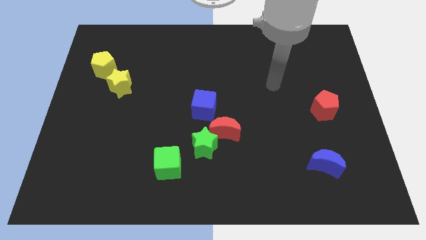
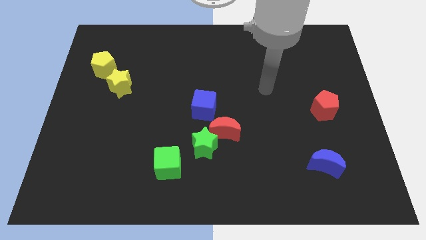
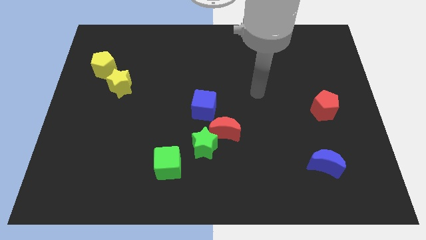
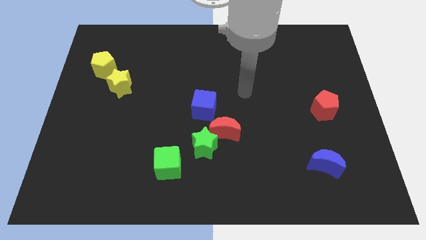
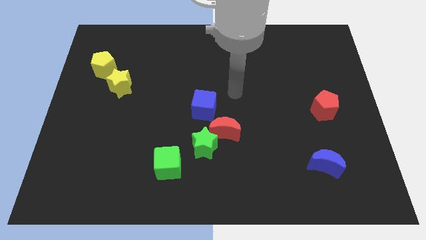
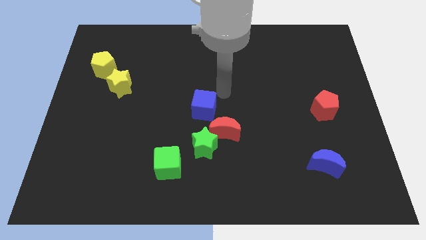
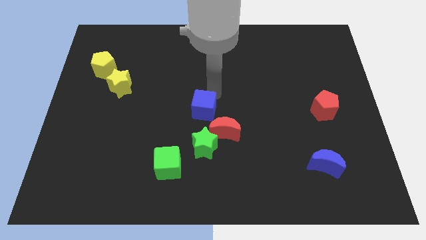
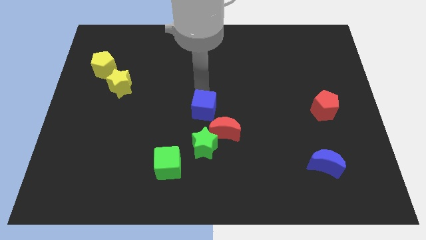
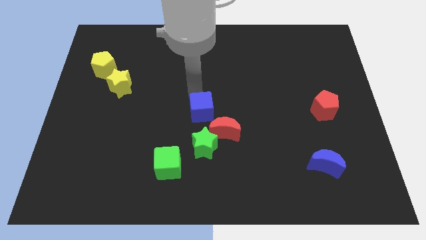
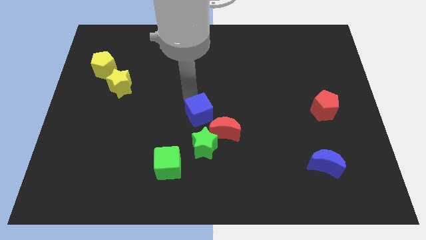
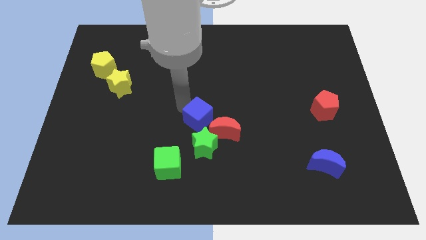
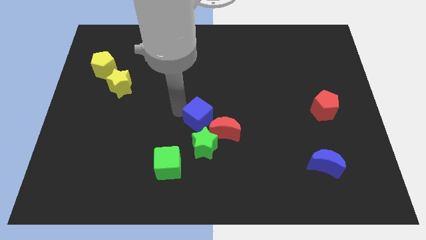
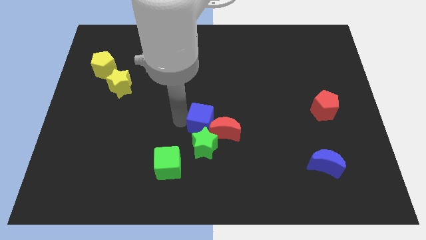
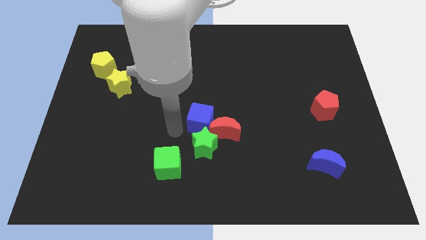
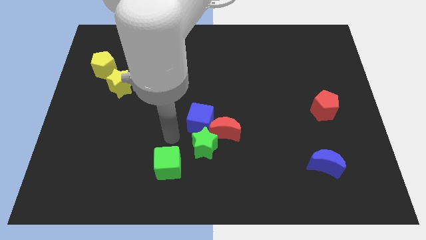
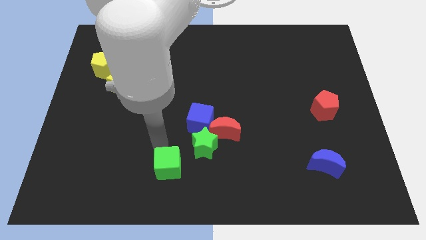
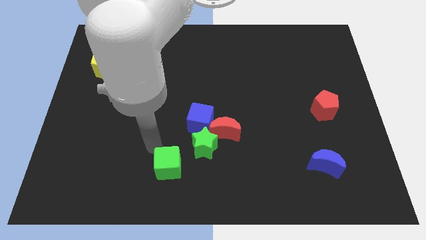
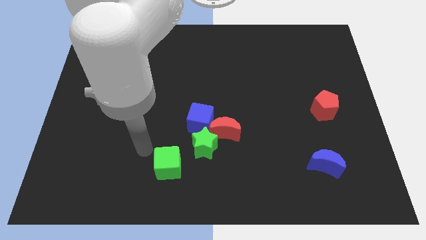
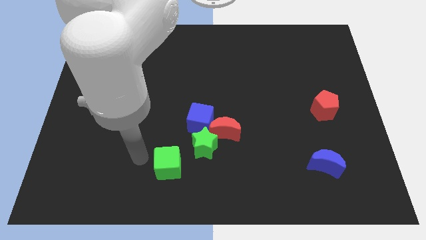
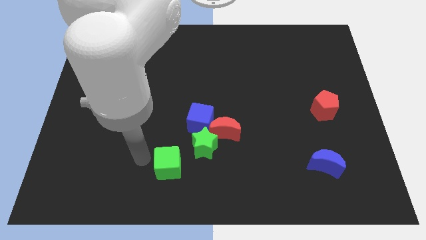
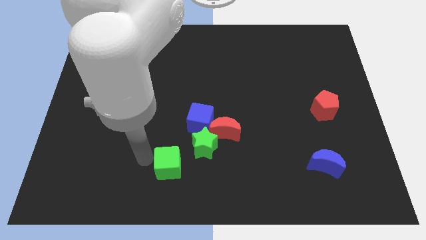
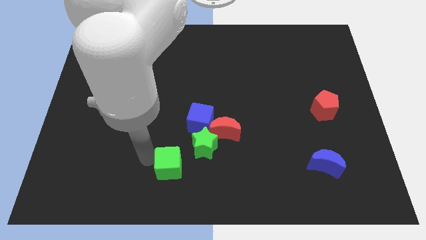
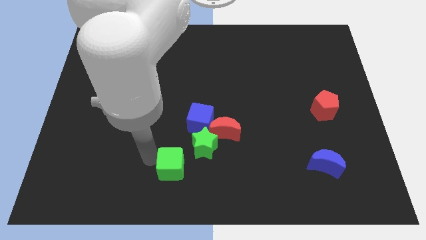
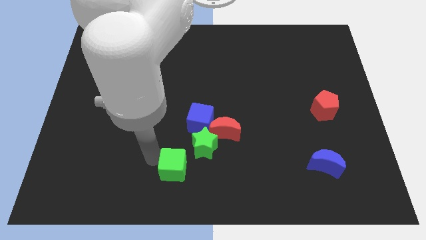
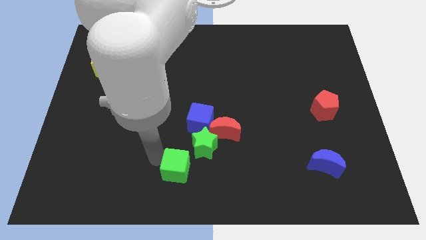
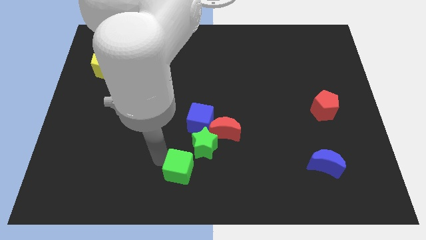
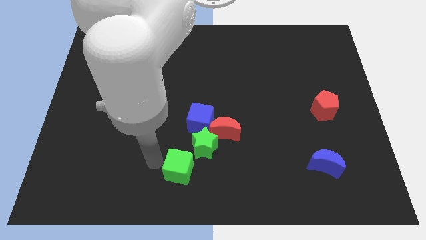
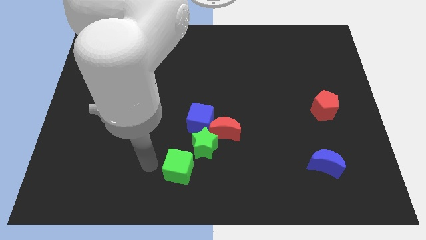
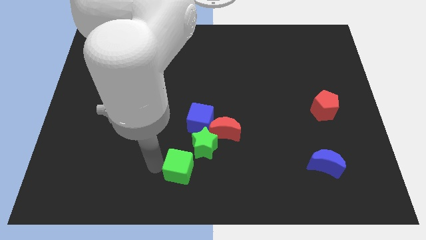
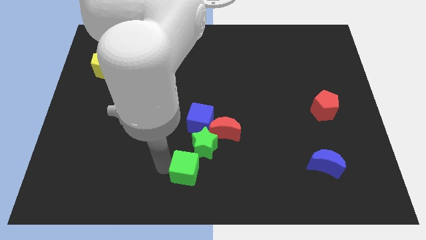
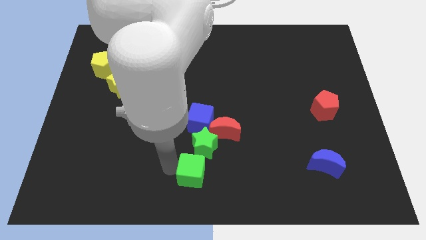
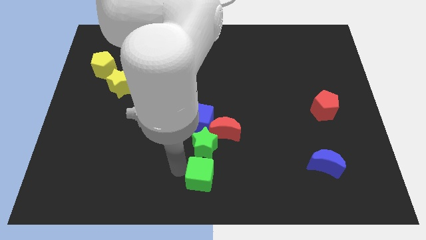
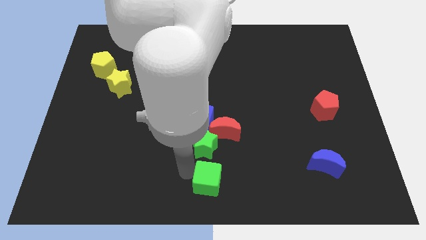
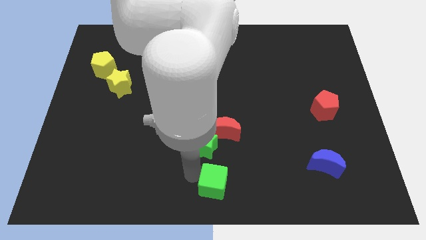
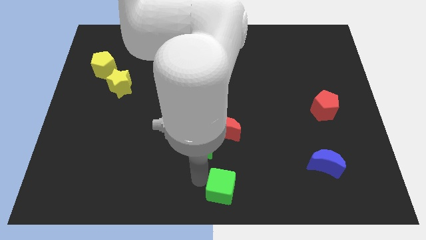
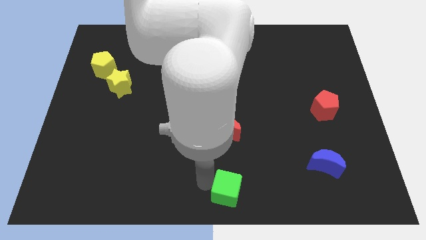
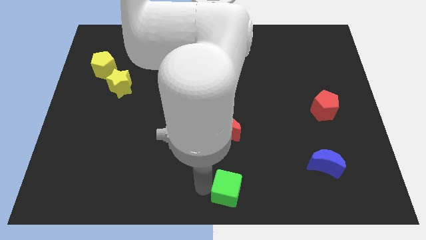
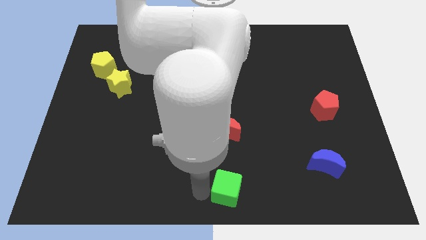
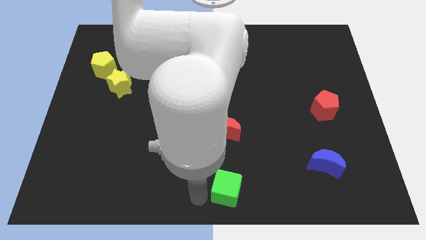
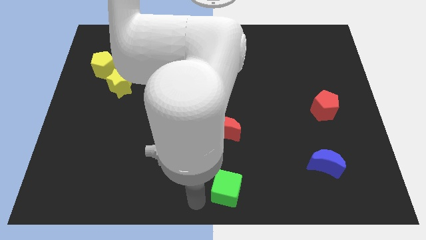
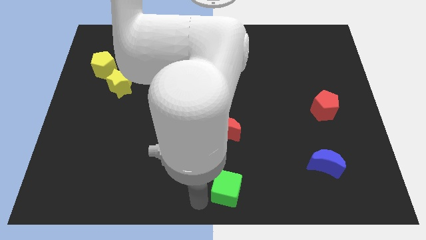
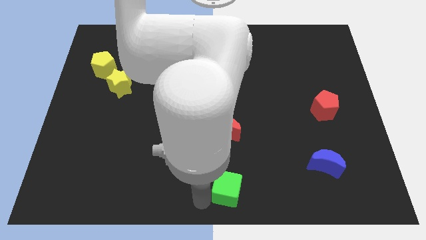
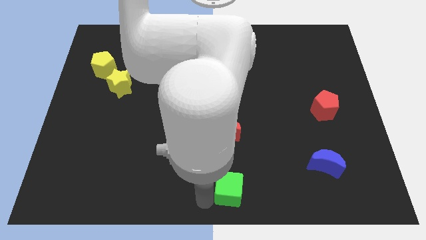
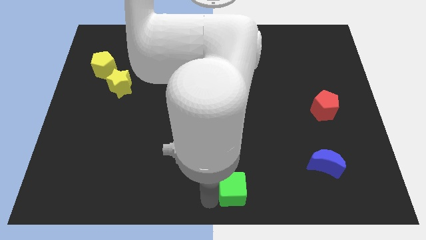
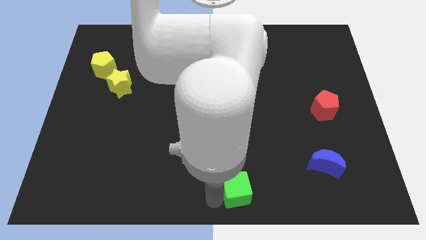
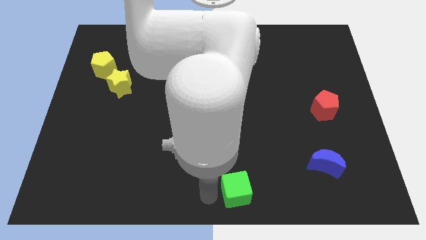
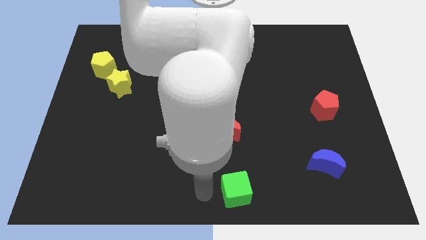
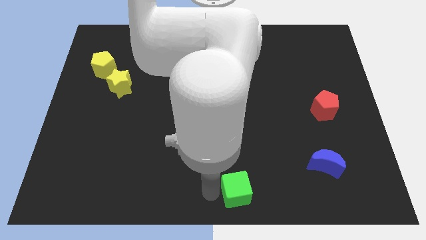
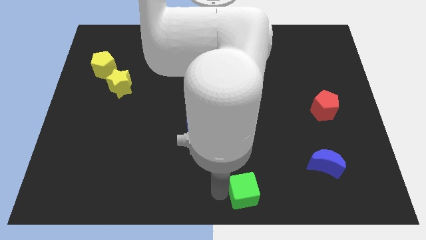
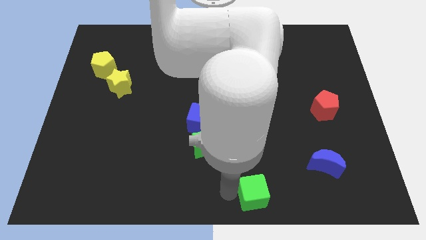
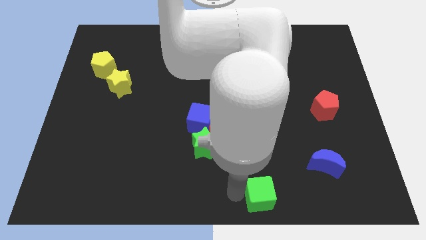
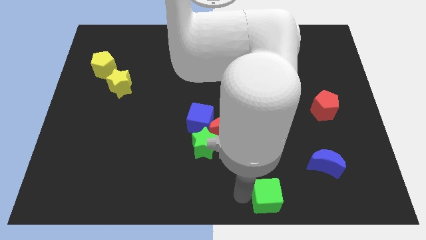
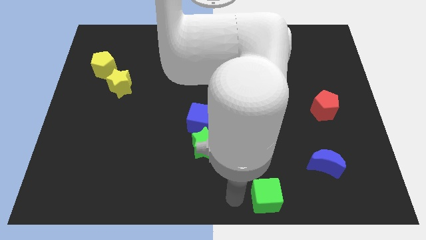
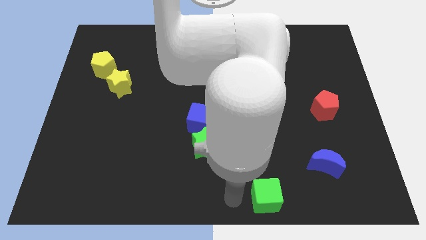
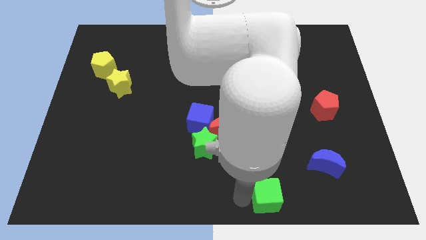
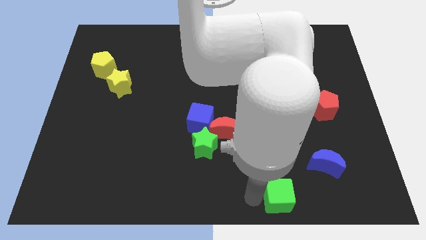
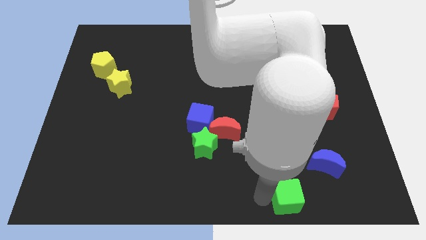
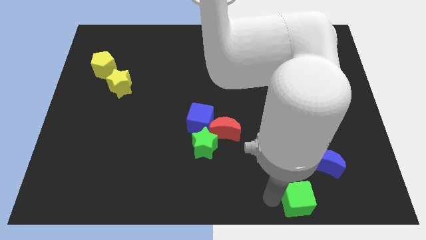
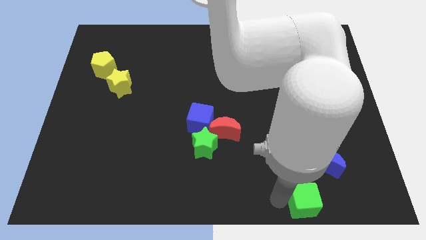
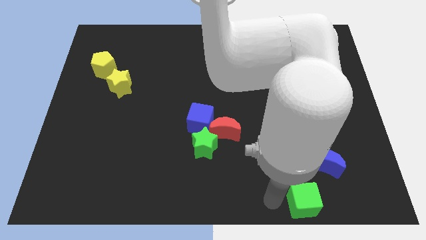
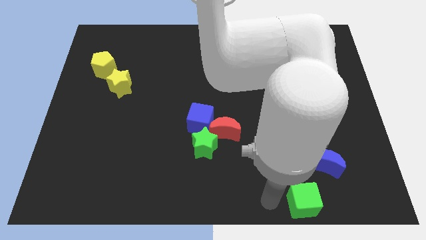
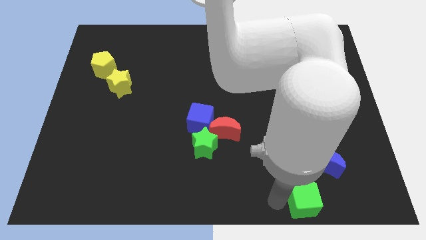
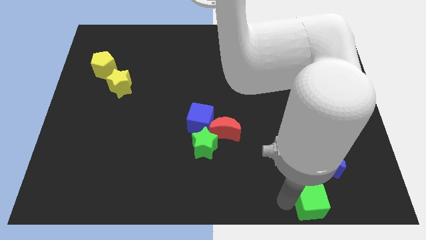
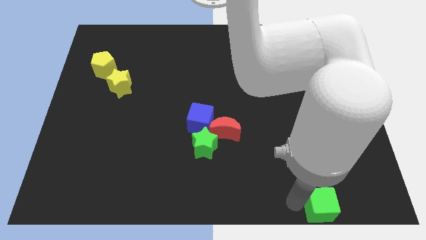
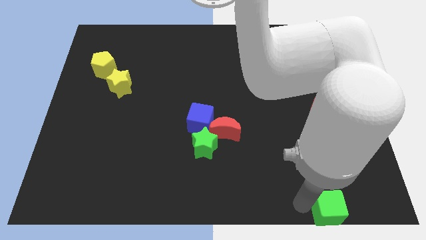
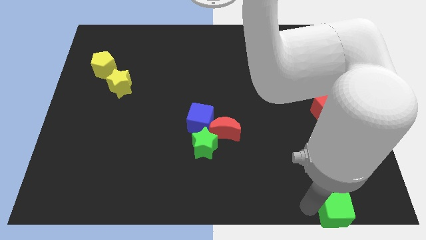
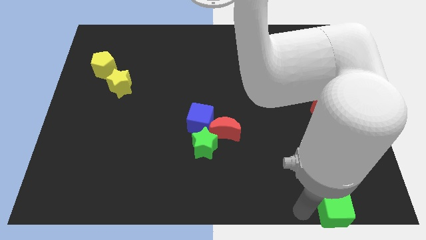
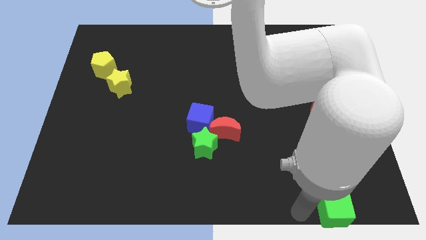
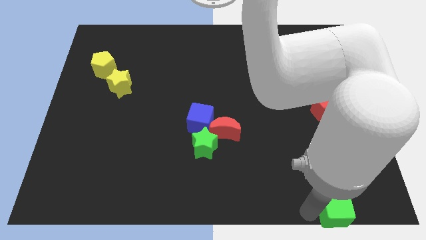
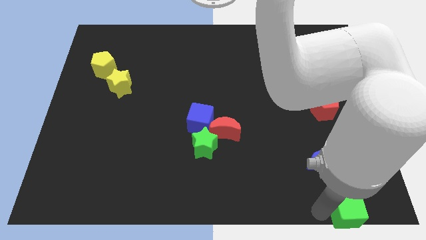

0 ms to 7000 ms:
slide the green cube to the bottom right of the board

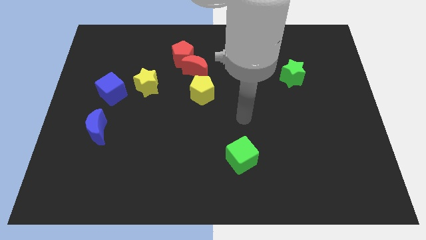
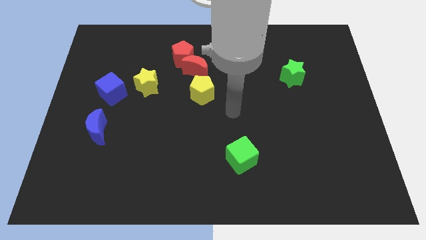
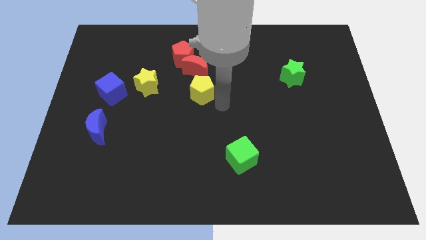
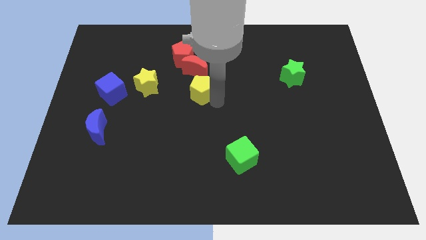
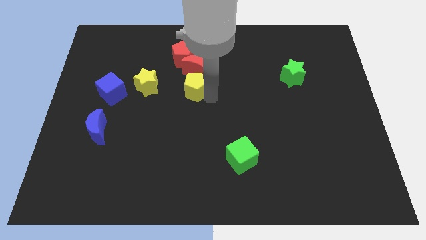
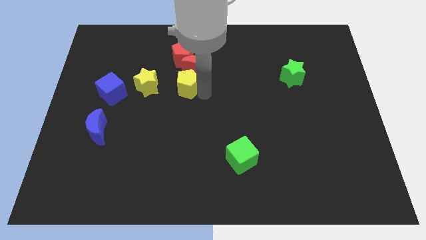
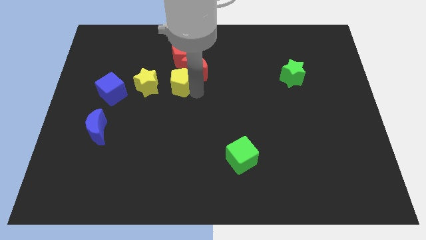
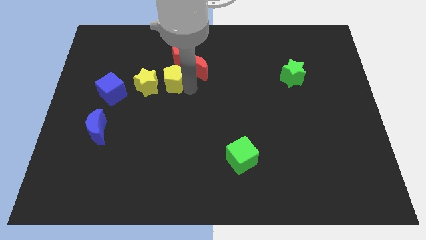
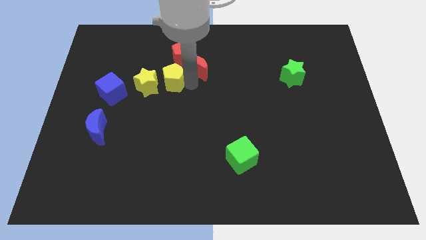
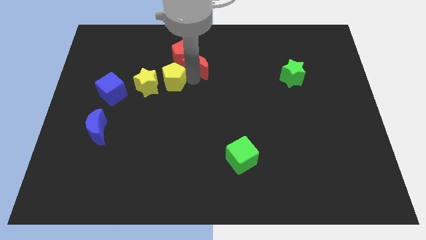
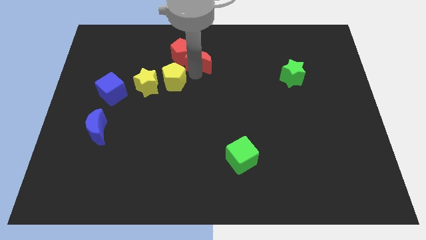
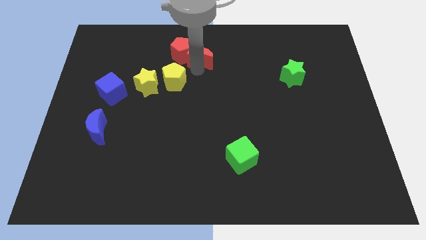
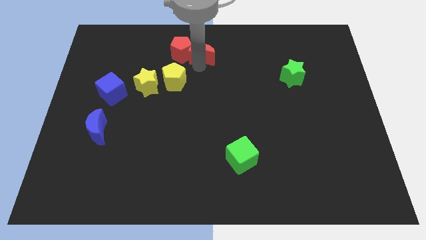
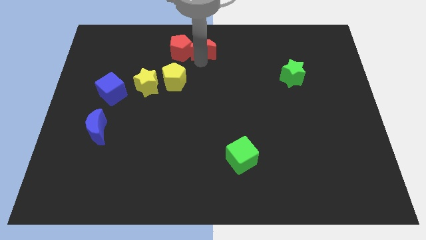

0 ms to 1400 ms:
move the red moon to the top side
